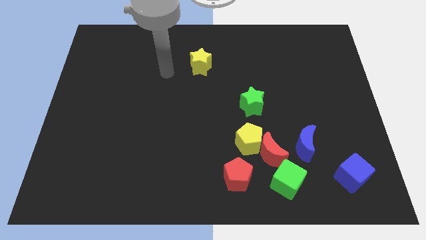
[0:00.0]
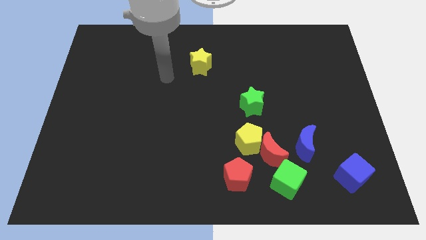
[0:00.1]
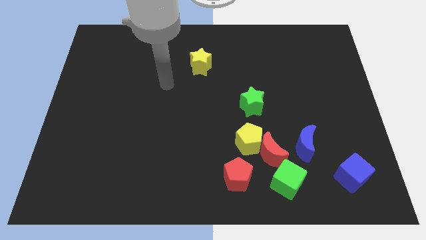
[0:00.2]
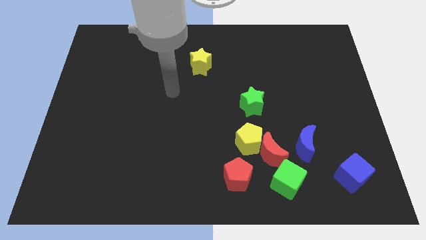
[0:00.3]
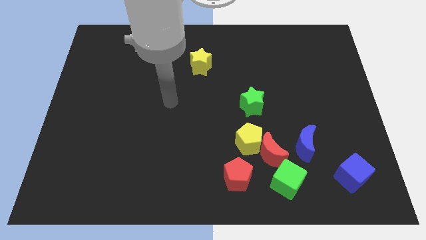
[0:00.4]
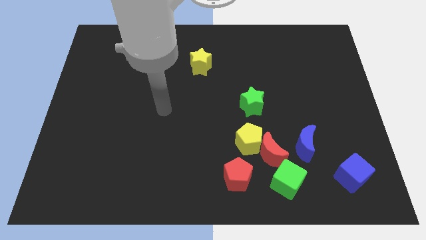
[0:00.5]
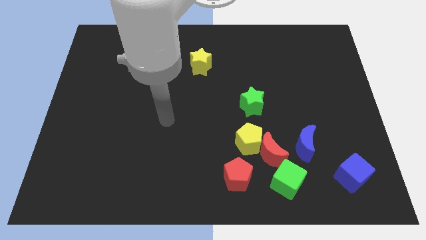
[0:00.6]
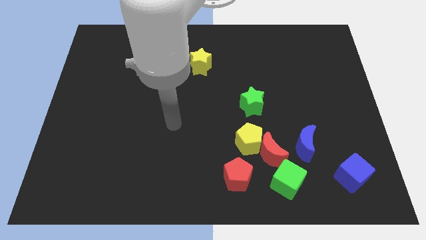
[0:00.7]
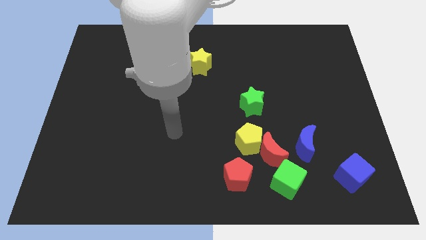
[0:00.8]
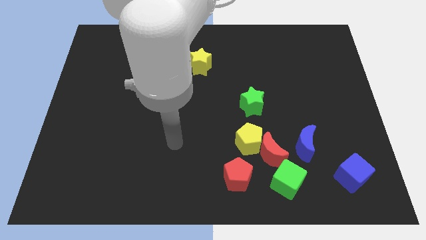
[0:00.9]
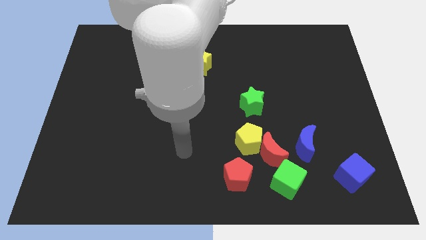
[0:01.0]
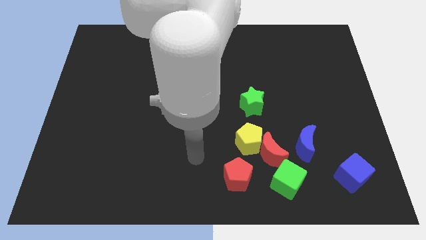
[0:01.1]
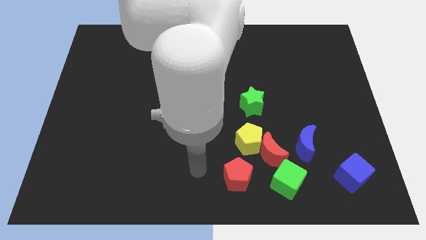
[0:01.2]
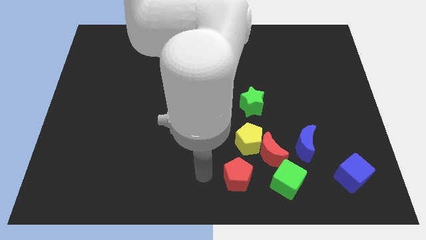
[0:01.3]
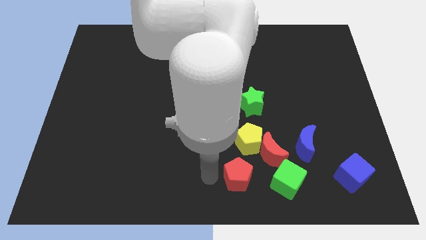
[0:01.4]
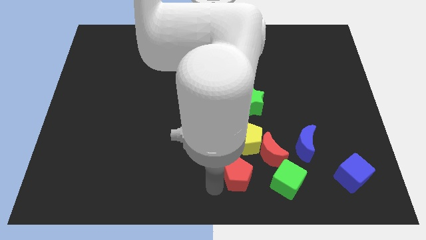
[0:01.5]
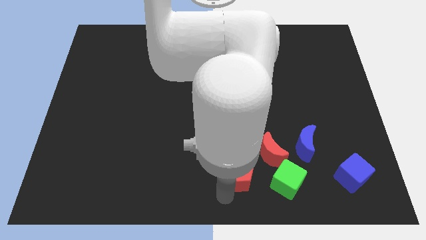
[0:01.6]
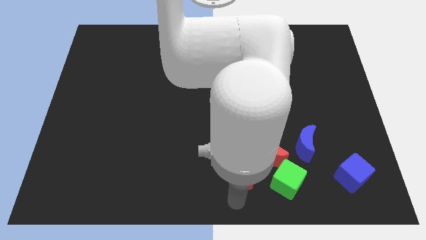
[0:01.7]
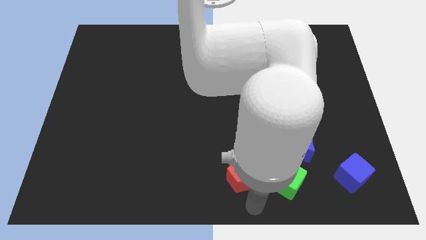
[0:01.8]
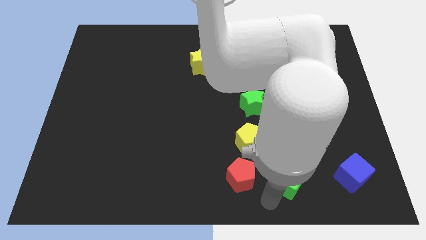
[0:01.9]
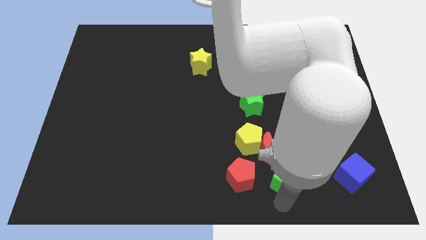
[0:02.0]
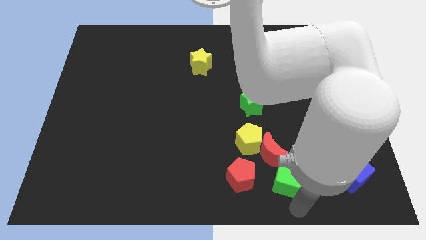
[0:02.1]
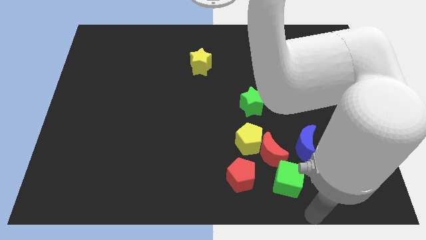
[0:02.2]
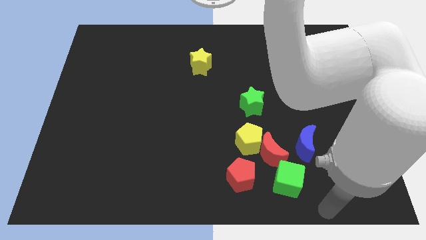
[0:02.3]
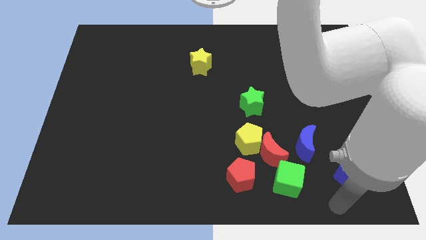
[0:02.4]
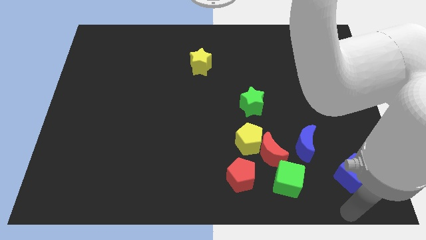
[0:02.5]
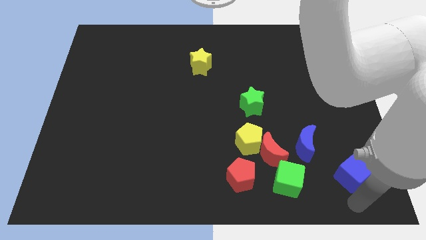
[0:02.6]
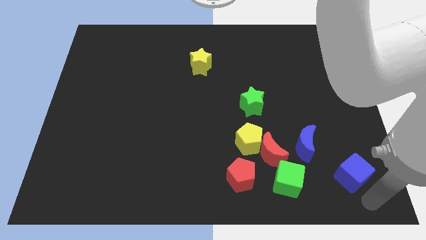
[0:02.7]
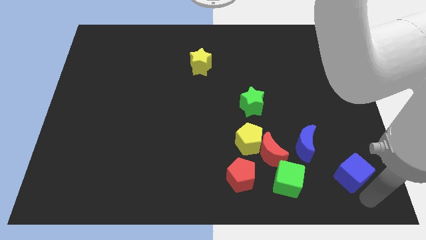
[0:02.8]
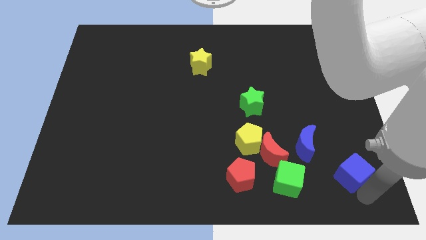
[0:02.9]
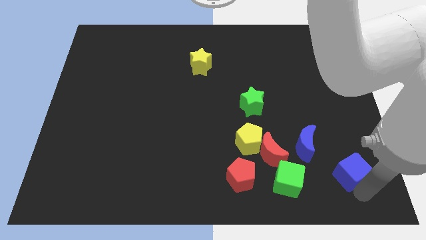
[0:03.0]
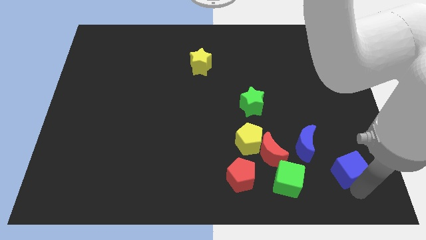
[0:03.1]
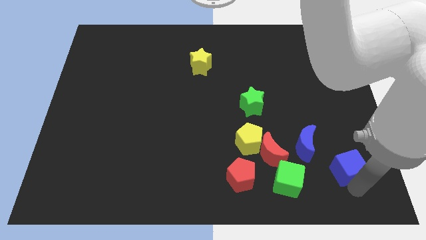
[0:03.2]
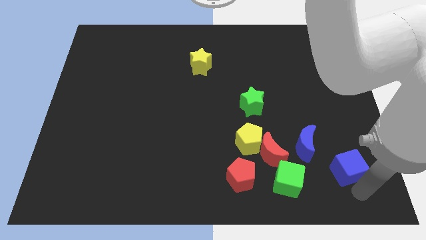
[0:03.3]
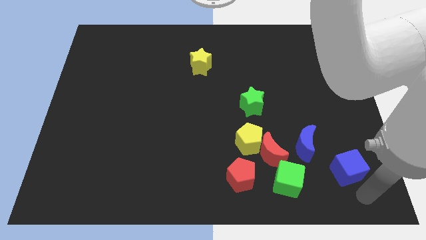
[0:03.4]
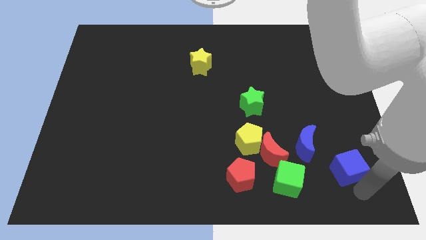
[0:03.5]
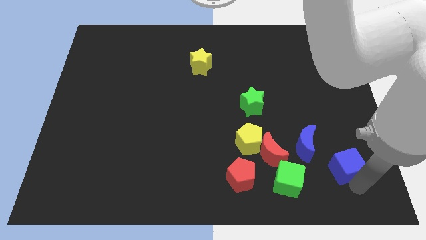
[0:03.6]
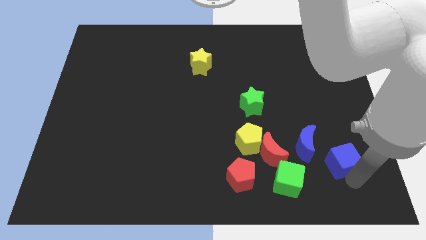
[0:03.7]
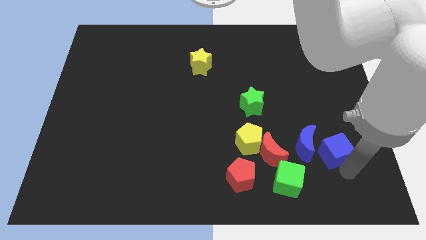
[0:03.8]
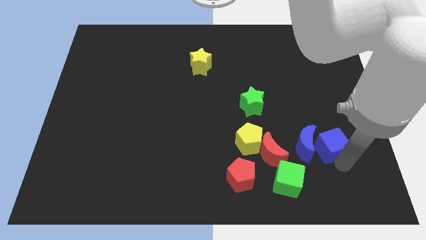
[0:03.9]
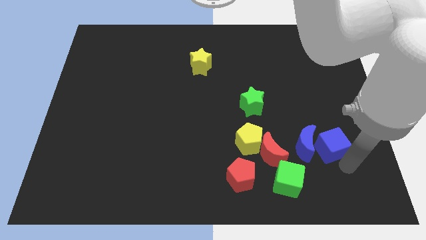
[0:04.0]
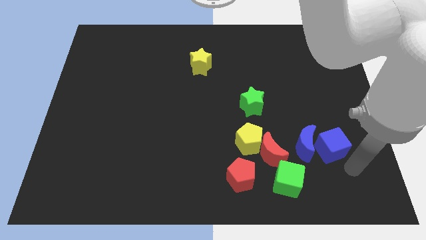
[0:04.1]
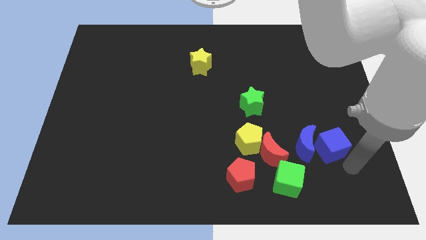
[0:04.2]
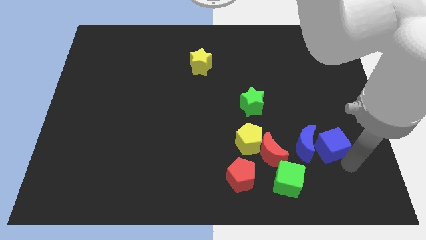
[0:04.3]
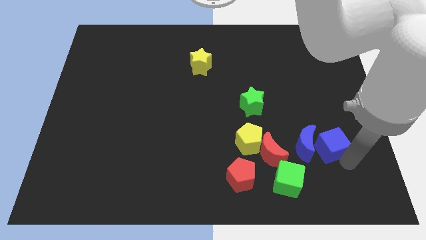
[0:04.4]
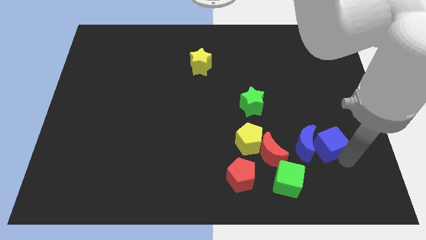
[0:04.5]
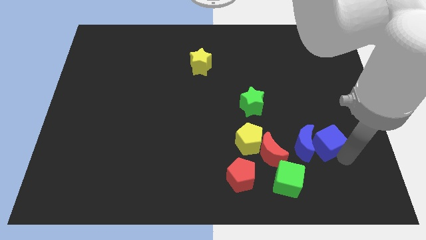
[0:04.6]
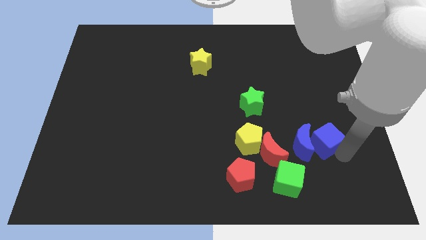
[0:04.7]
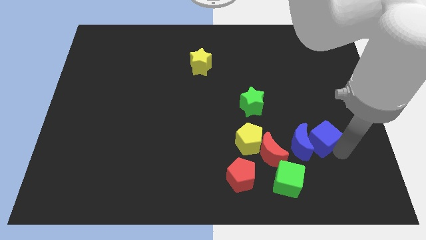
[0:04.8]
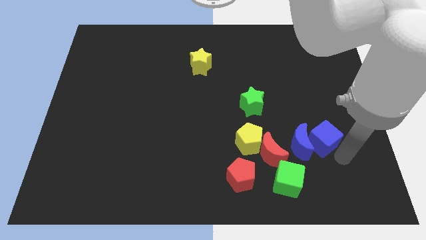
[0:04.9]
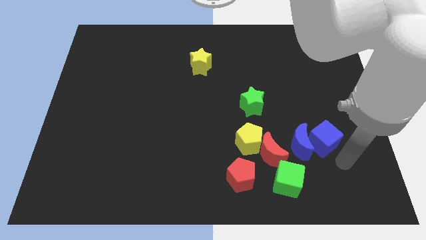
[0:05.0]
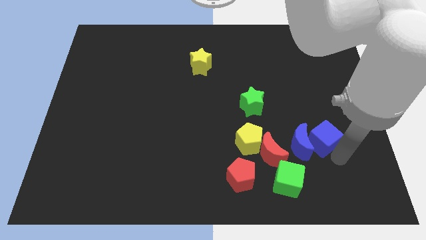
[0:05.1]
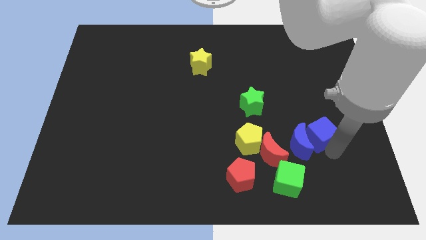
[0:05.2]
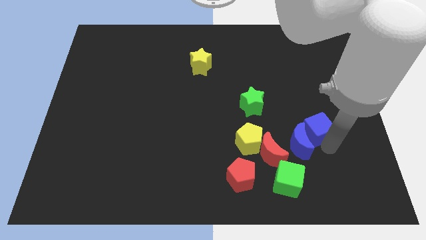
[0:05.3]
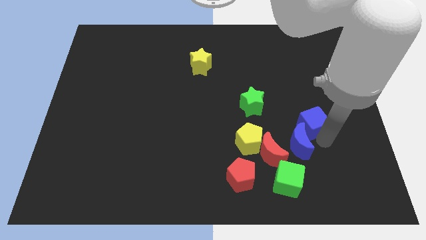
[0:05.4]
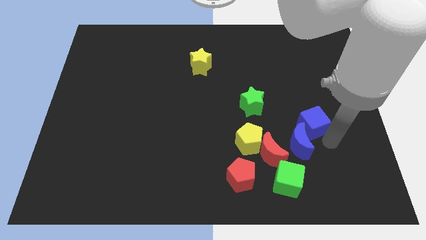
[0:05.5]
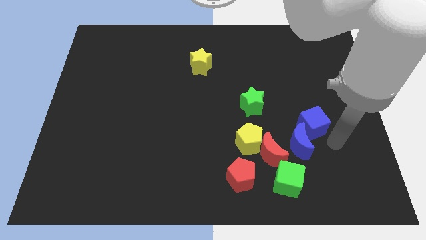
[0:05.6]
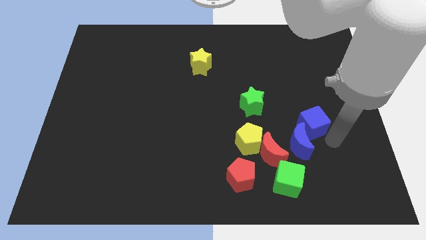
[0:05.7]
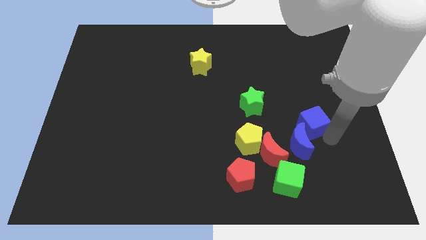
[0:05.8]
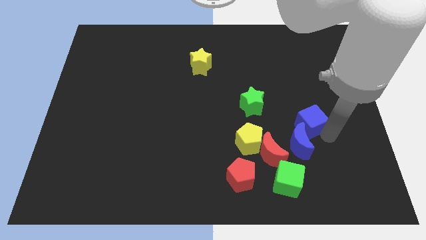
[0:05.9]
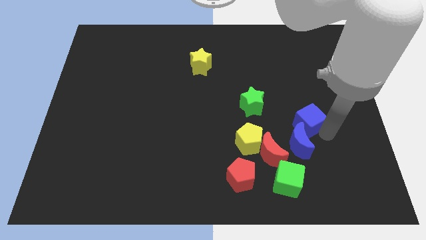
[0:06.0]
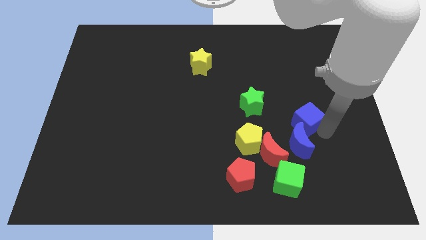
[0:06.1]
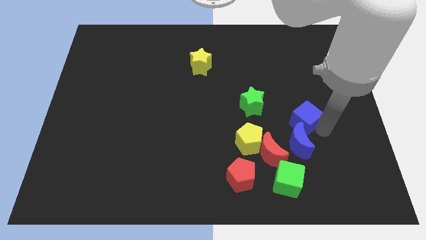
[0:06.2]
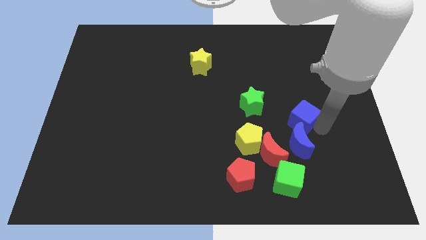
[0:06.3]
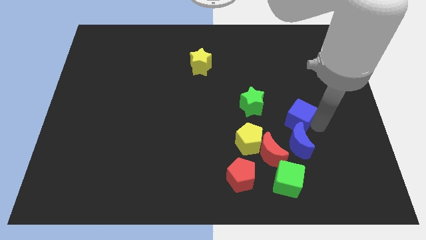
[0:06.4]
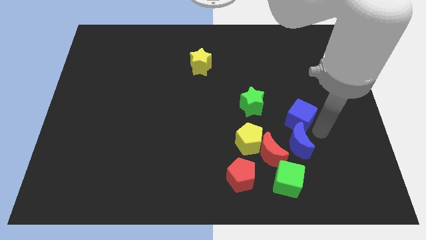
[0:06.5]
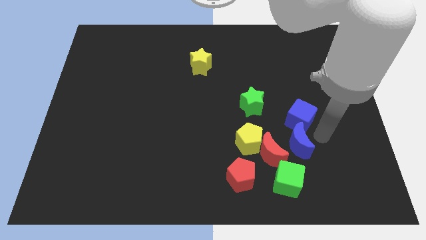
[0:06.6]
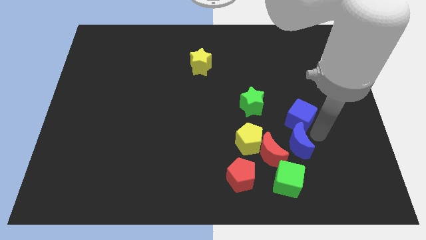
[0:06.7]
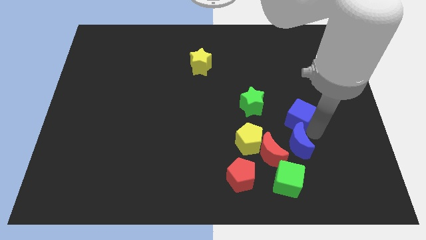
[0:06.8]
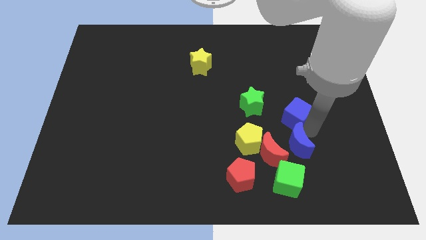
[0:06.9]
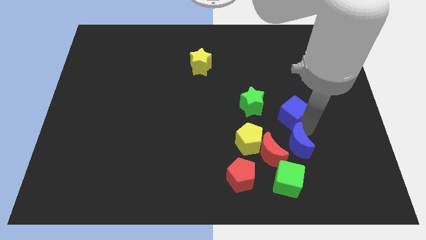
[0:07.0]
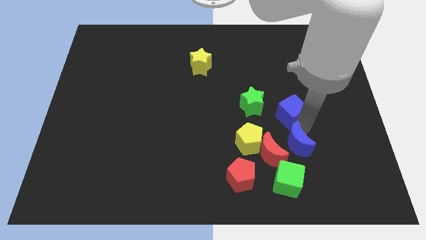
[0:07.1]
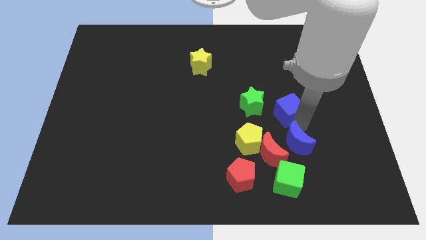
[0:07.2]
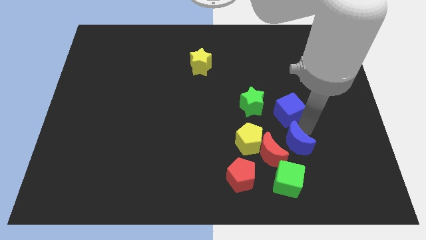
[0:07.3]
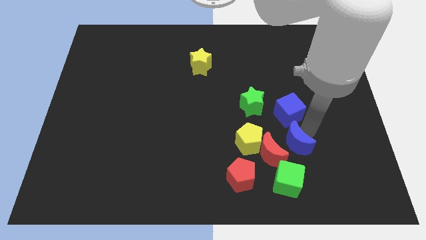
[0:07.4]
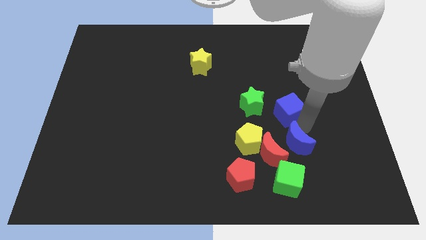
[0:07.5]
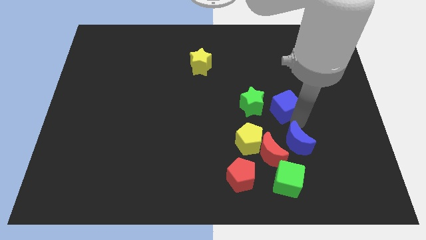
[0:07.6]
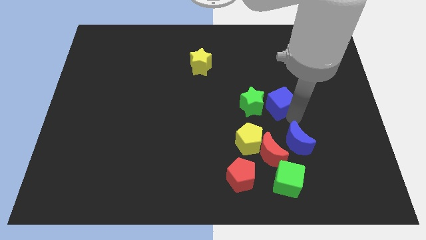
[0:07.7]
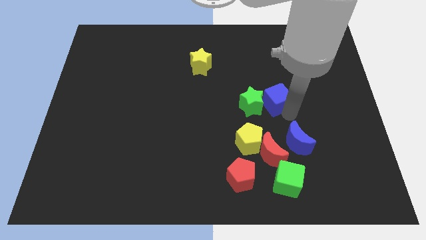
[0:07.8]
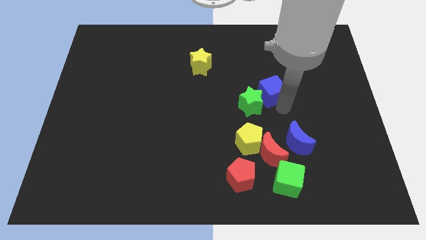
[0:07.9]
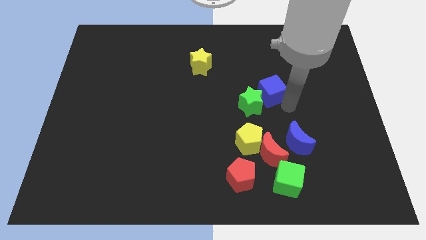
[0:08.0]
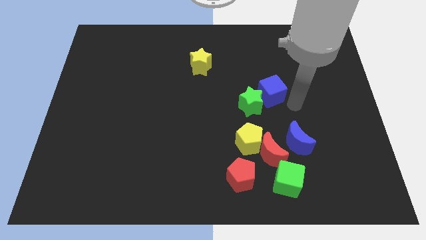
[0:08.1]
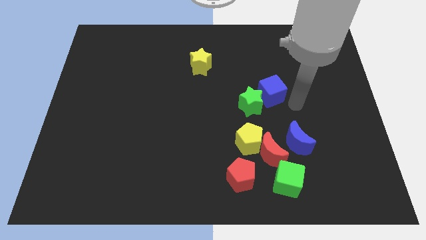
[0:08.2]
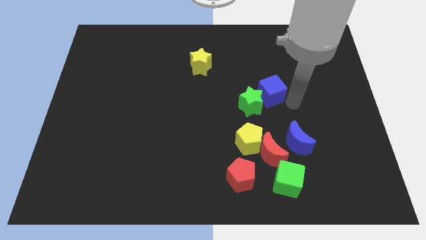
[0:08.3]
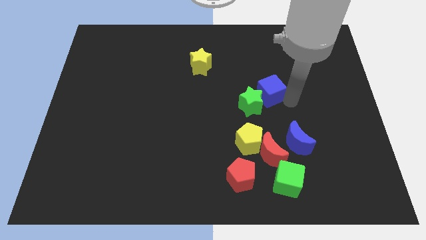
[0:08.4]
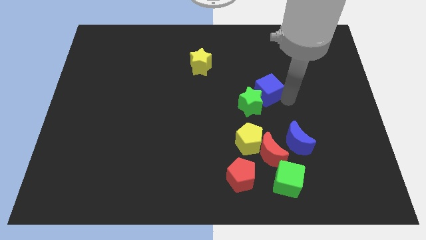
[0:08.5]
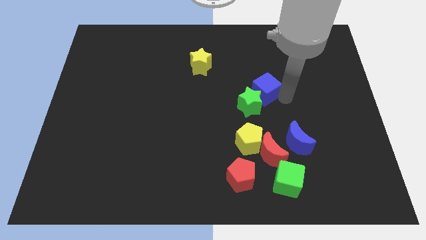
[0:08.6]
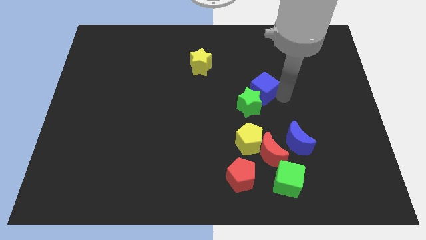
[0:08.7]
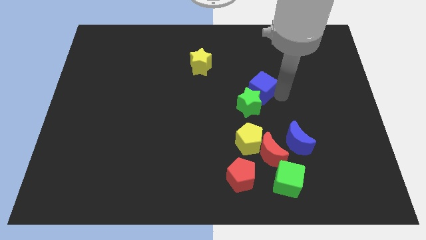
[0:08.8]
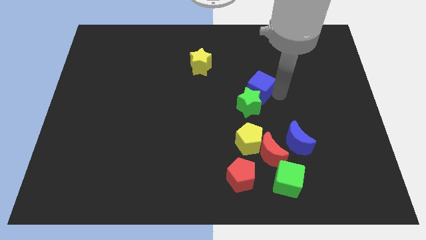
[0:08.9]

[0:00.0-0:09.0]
push the blue cube to the top of the yellow pentagon
